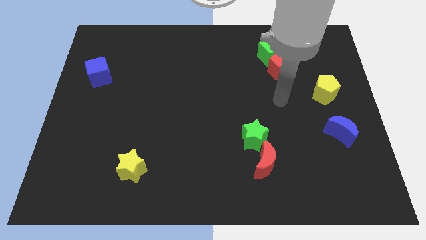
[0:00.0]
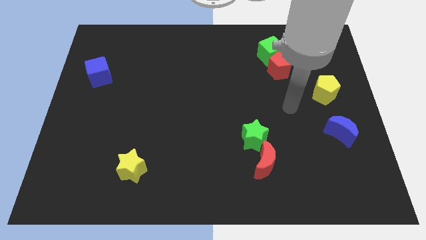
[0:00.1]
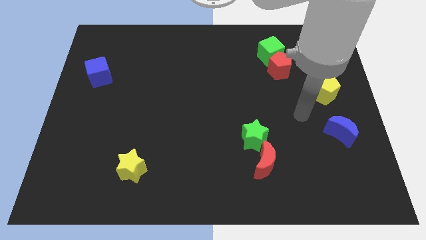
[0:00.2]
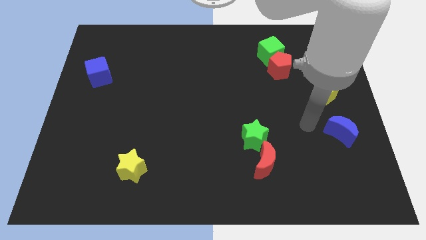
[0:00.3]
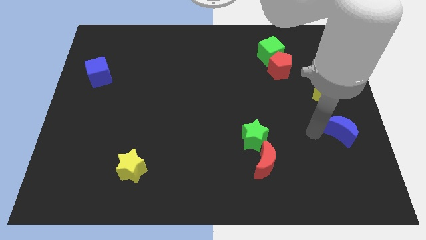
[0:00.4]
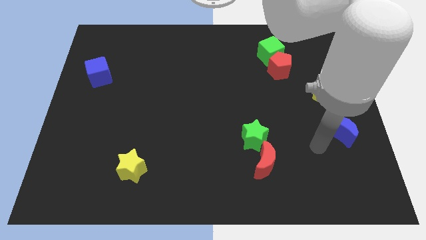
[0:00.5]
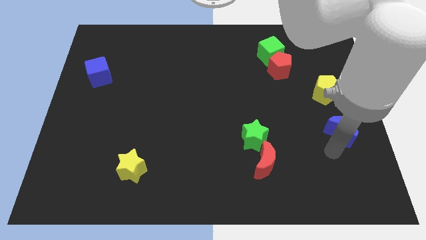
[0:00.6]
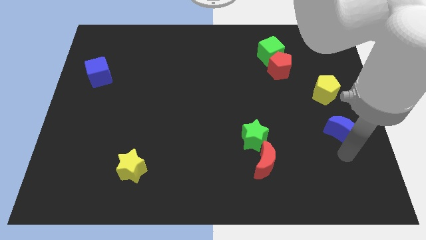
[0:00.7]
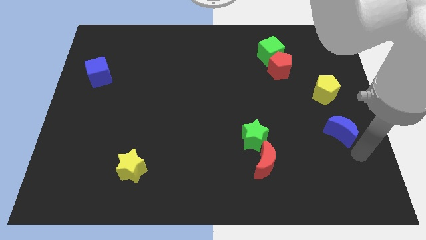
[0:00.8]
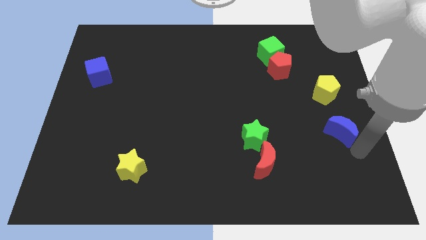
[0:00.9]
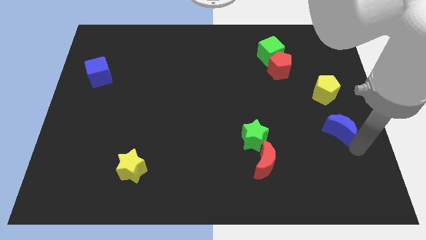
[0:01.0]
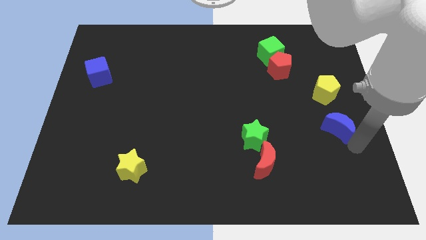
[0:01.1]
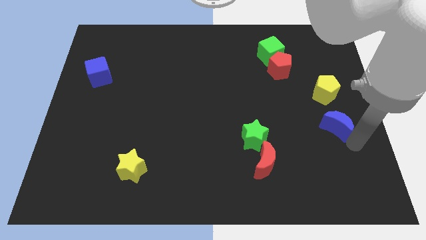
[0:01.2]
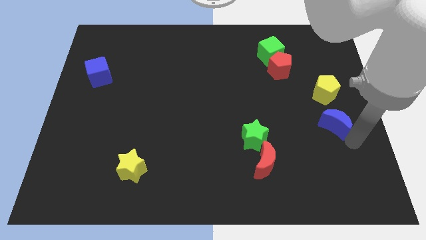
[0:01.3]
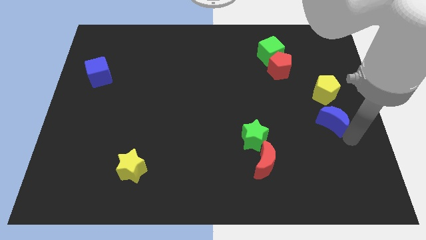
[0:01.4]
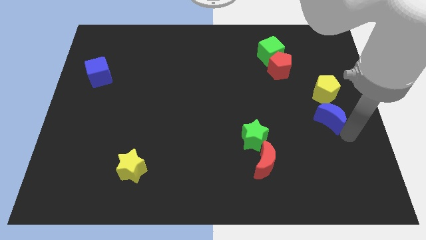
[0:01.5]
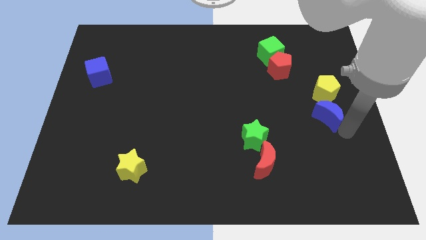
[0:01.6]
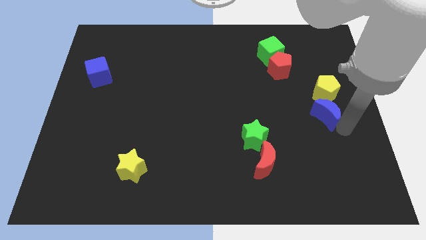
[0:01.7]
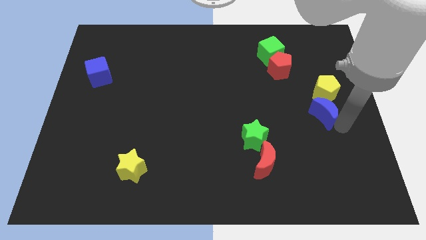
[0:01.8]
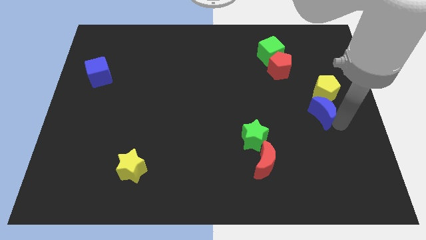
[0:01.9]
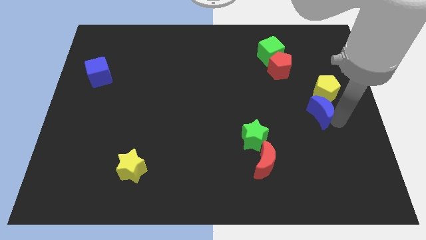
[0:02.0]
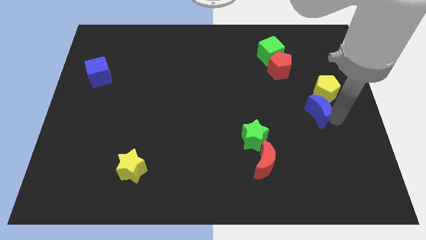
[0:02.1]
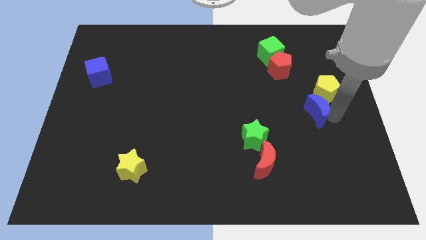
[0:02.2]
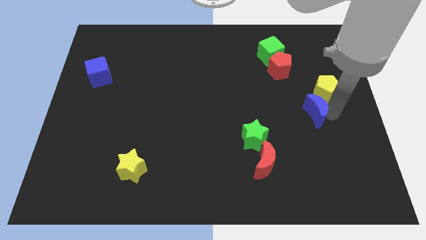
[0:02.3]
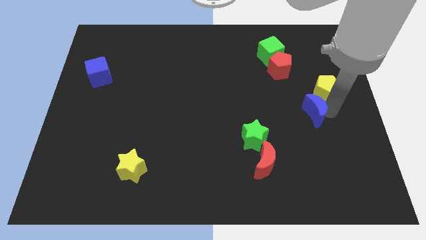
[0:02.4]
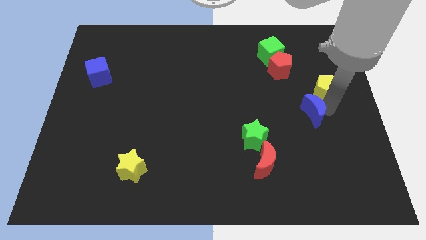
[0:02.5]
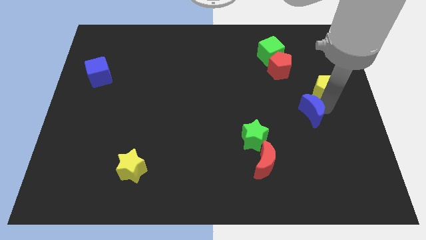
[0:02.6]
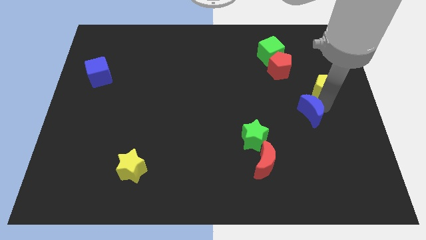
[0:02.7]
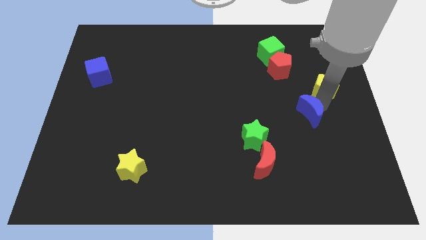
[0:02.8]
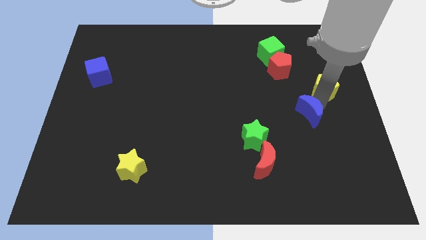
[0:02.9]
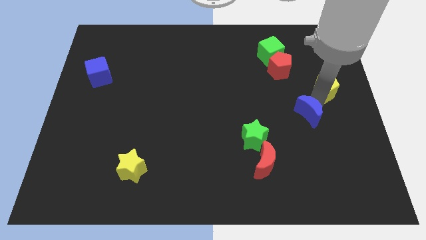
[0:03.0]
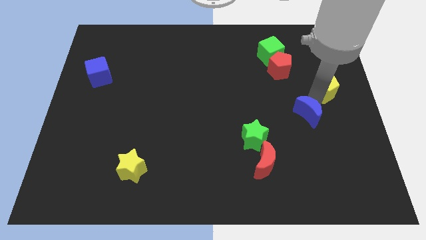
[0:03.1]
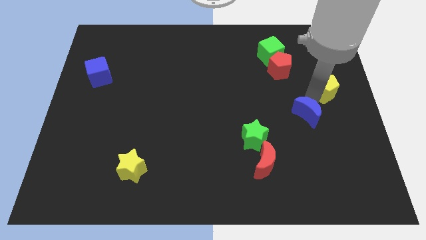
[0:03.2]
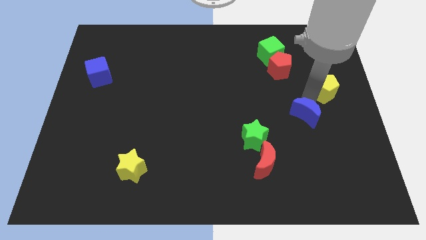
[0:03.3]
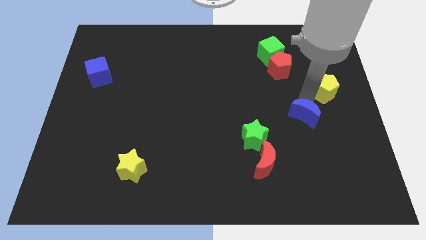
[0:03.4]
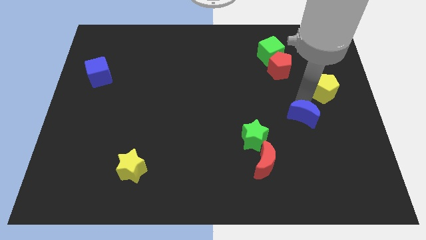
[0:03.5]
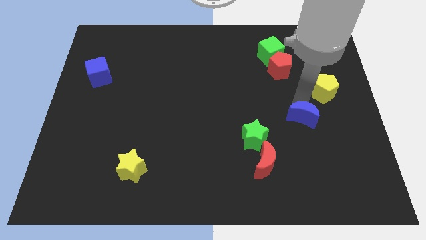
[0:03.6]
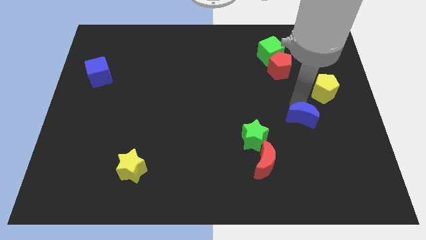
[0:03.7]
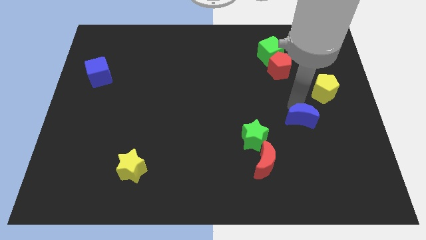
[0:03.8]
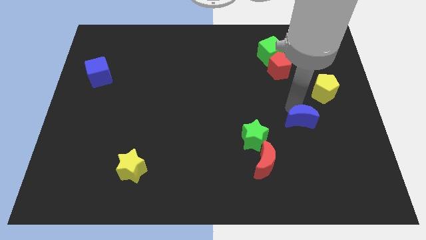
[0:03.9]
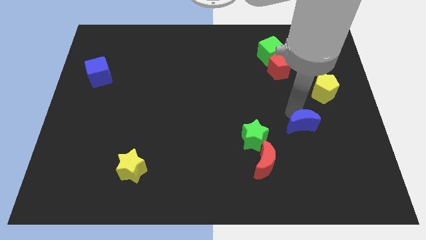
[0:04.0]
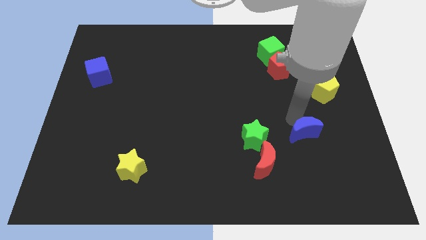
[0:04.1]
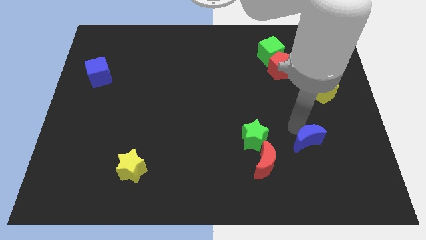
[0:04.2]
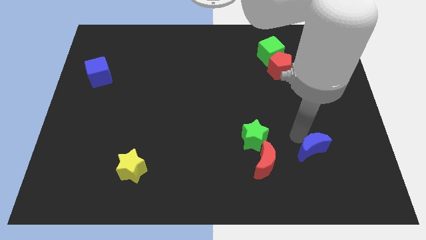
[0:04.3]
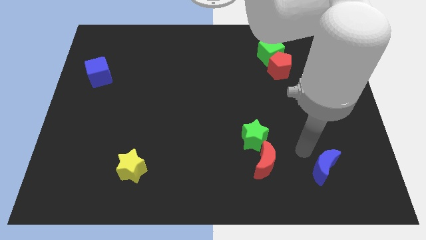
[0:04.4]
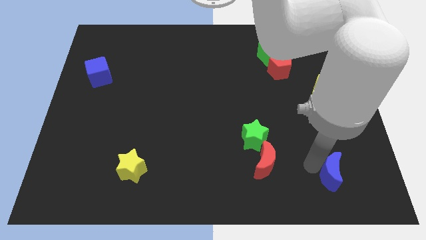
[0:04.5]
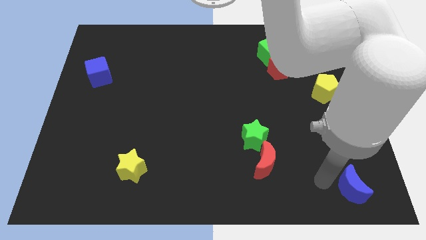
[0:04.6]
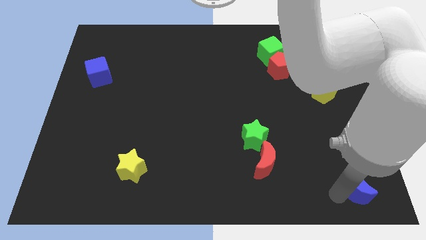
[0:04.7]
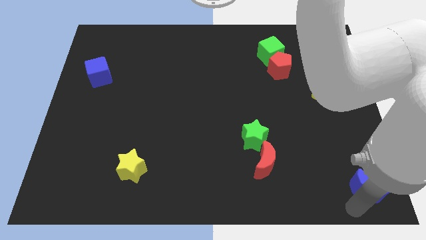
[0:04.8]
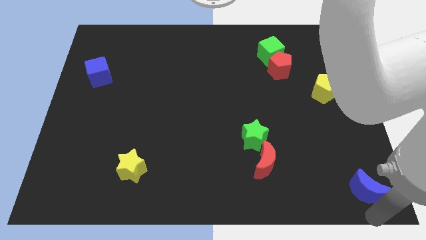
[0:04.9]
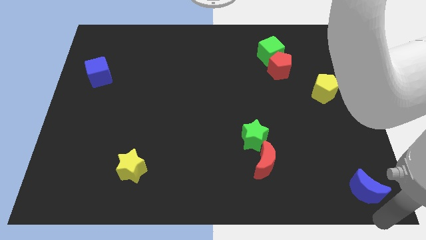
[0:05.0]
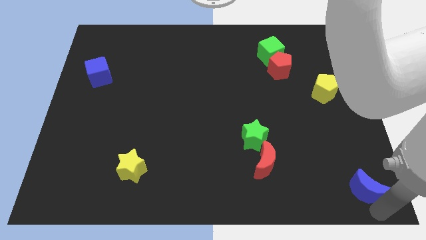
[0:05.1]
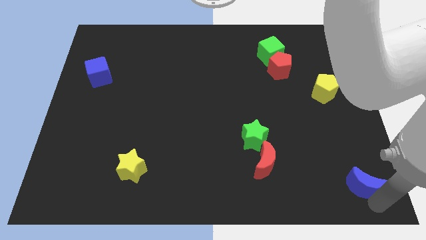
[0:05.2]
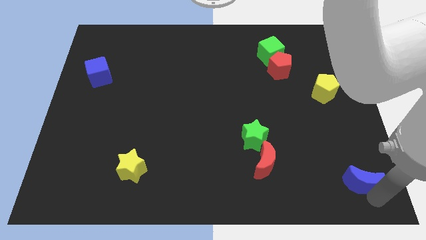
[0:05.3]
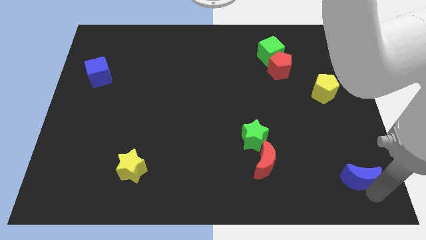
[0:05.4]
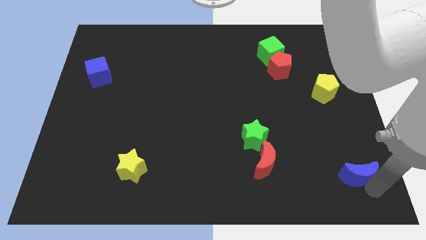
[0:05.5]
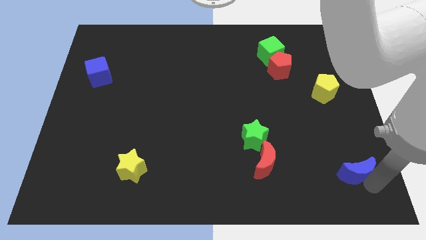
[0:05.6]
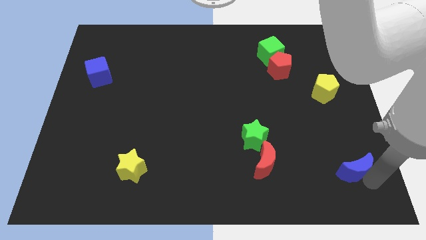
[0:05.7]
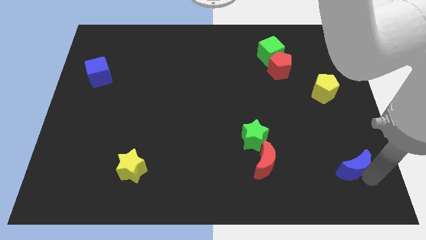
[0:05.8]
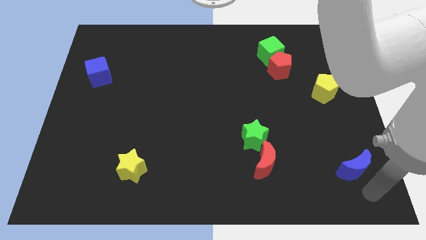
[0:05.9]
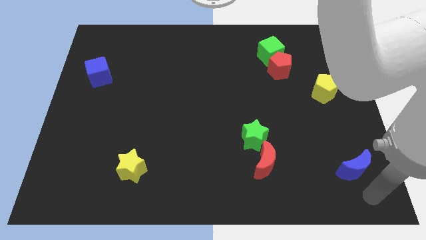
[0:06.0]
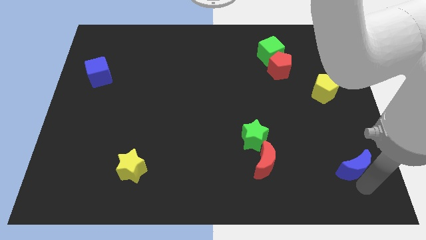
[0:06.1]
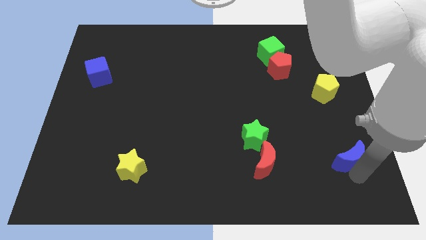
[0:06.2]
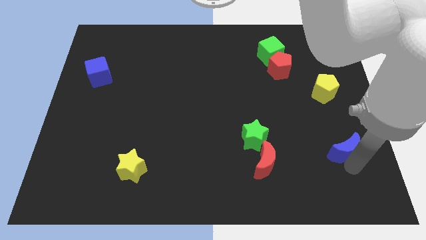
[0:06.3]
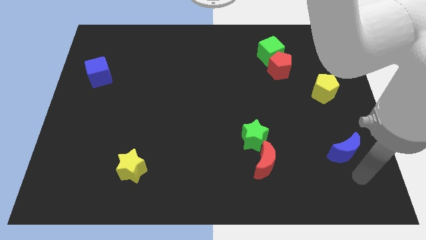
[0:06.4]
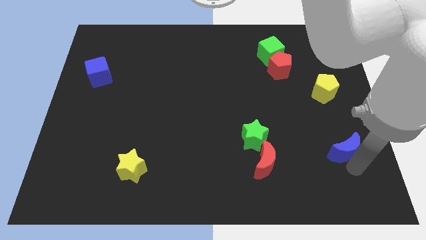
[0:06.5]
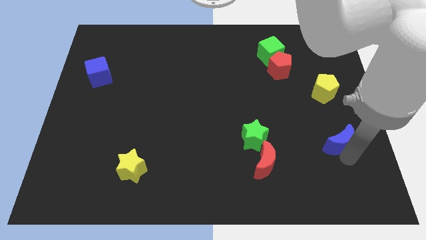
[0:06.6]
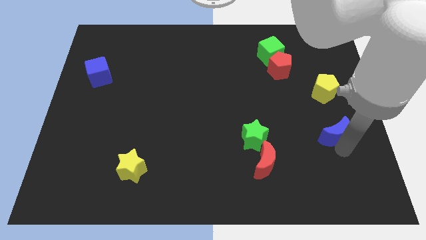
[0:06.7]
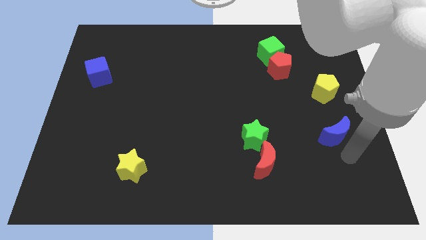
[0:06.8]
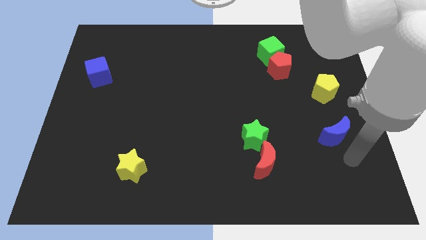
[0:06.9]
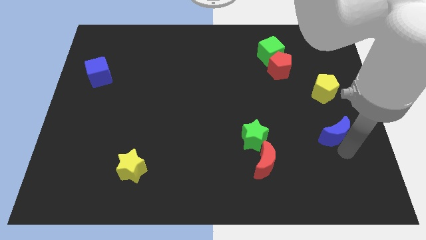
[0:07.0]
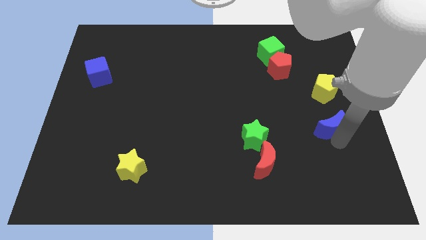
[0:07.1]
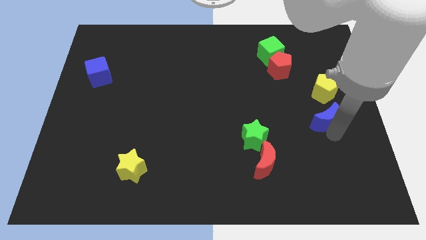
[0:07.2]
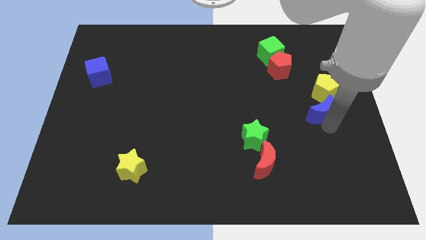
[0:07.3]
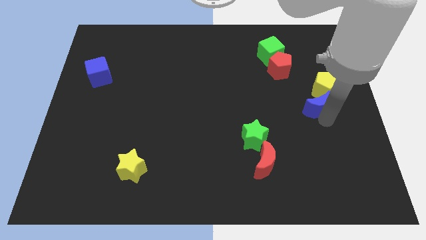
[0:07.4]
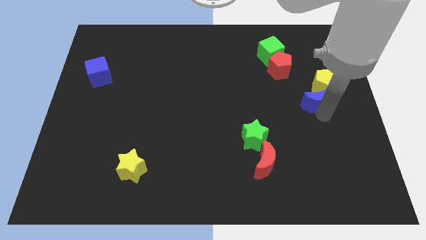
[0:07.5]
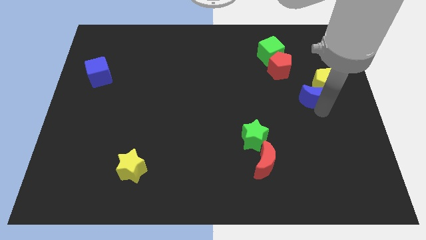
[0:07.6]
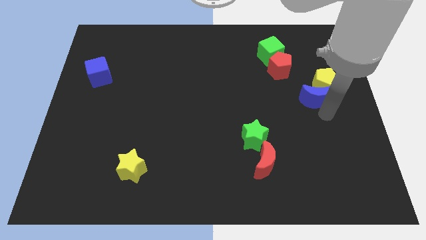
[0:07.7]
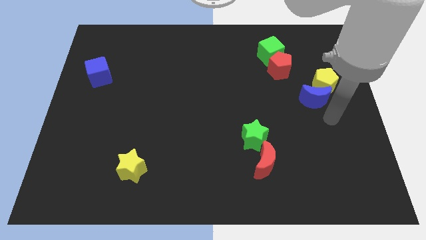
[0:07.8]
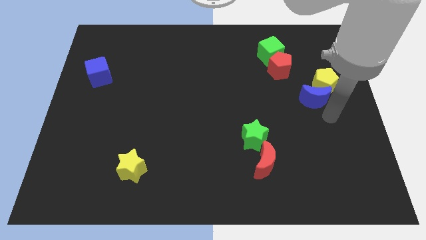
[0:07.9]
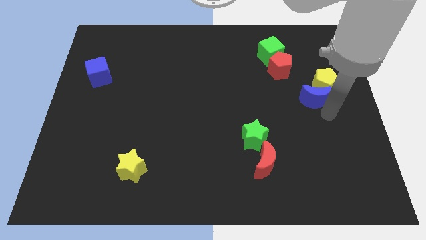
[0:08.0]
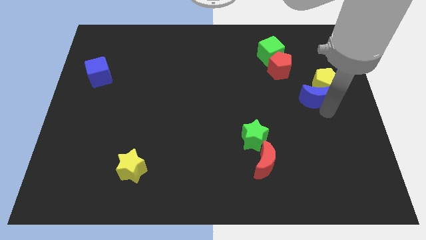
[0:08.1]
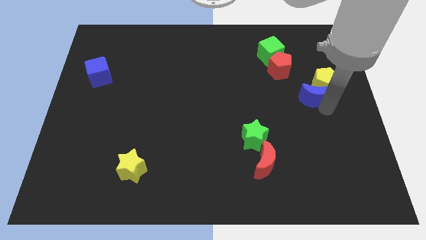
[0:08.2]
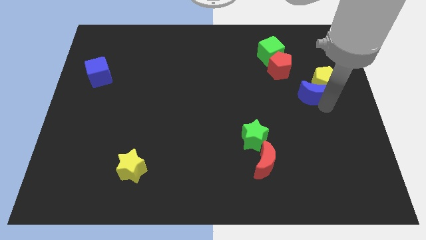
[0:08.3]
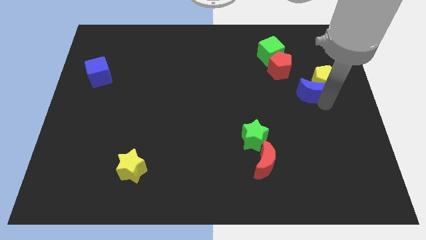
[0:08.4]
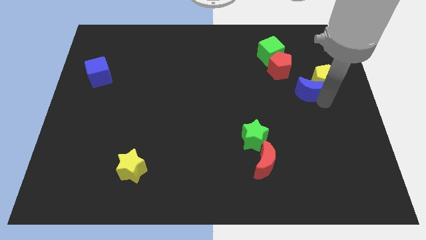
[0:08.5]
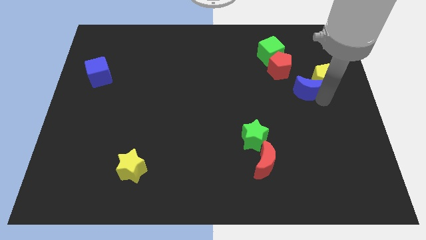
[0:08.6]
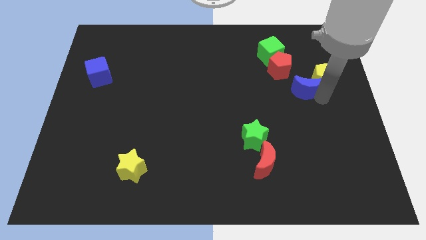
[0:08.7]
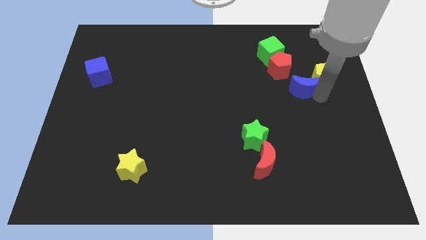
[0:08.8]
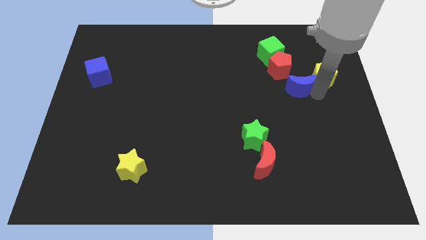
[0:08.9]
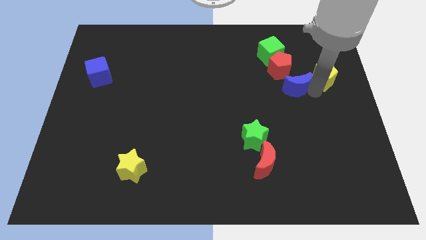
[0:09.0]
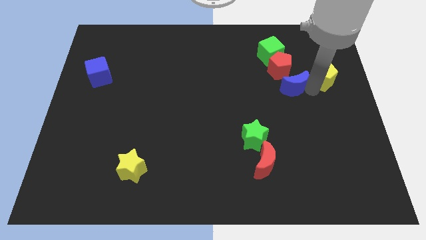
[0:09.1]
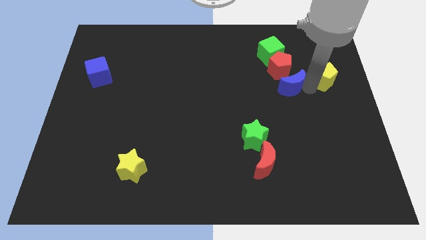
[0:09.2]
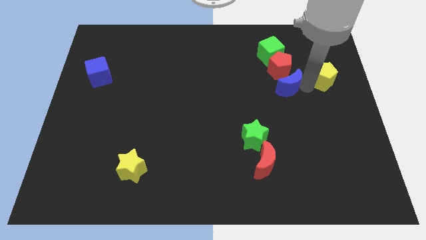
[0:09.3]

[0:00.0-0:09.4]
put the blue moon next to the red pentagon
